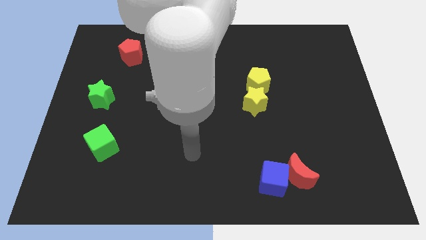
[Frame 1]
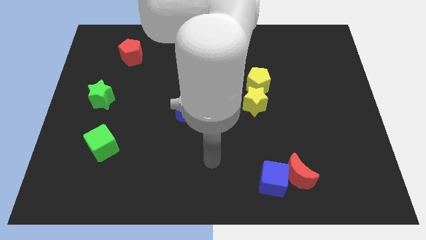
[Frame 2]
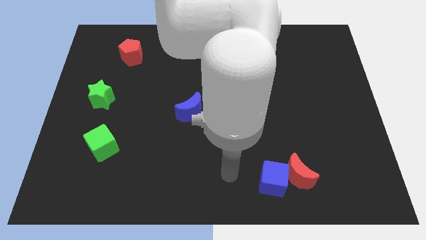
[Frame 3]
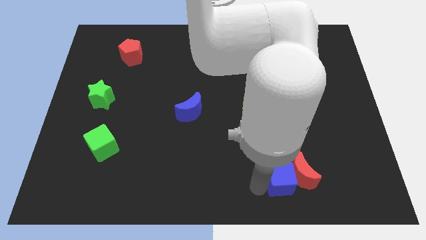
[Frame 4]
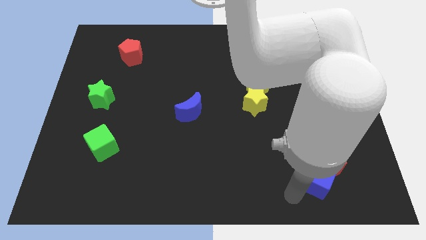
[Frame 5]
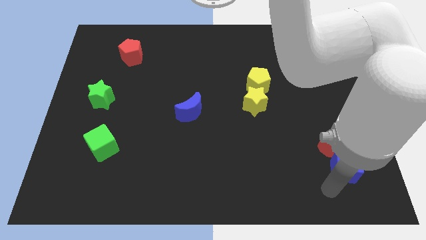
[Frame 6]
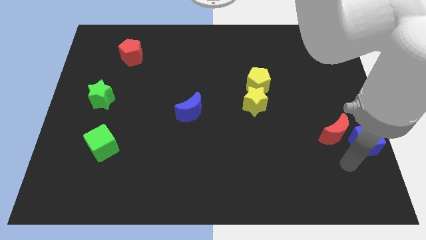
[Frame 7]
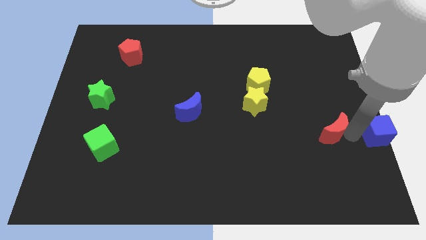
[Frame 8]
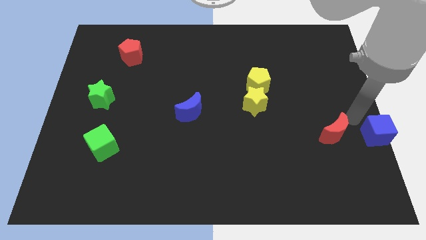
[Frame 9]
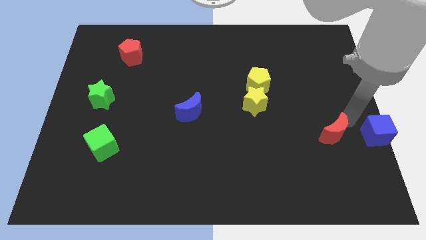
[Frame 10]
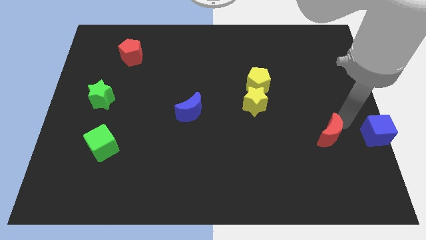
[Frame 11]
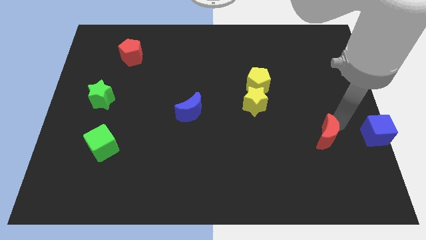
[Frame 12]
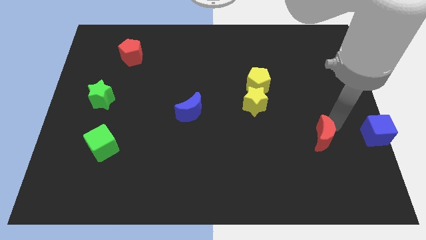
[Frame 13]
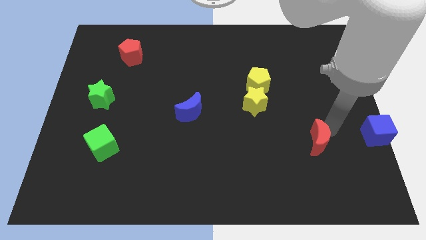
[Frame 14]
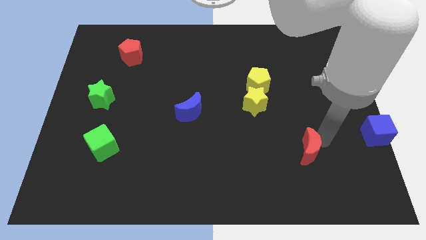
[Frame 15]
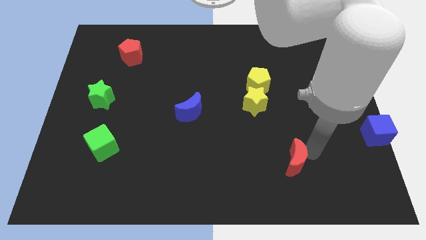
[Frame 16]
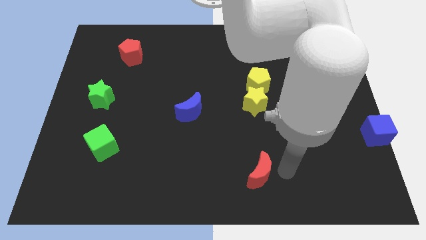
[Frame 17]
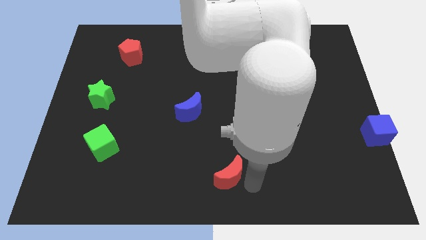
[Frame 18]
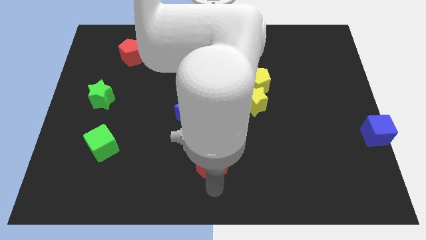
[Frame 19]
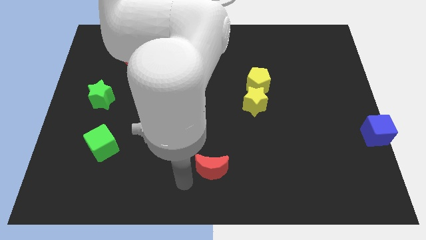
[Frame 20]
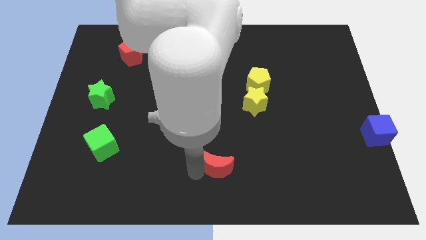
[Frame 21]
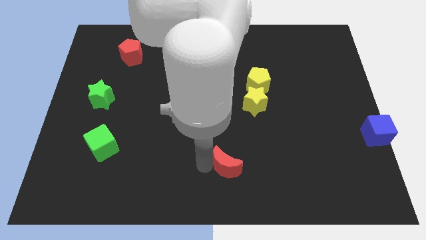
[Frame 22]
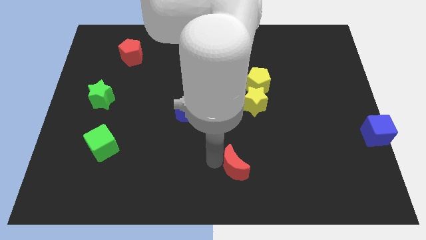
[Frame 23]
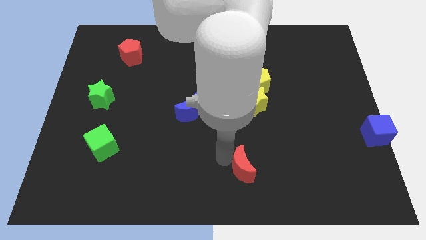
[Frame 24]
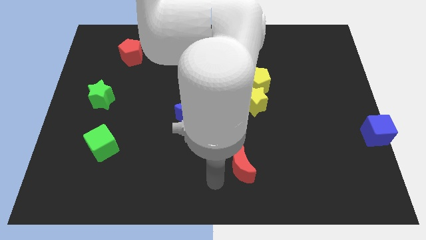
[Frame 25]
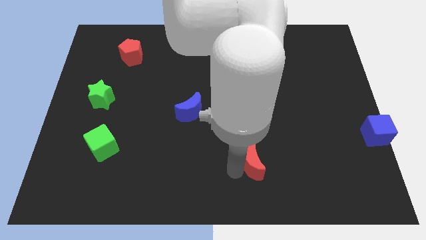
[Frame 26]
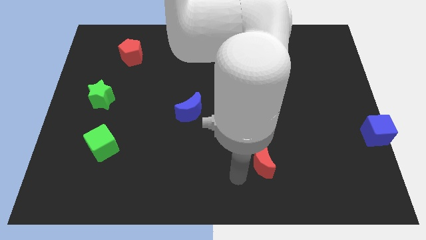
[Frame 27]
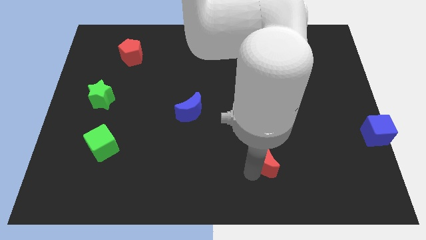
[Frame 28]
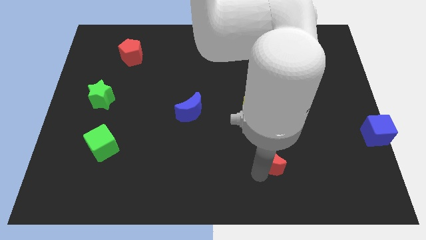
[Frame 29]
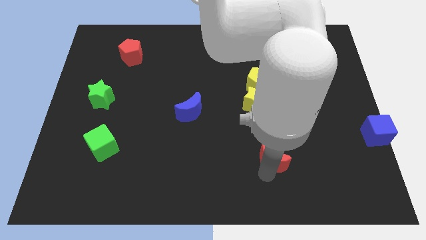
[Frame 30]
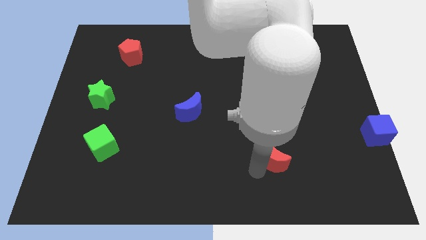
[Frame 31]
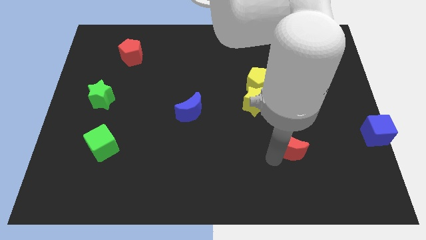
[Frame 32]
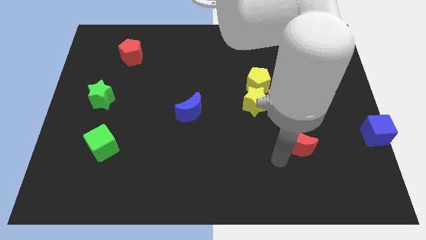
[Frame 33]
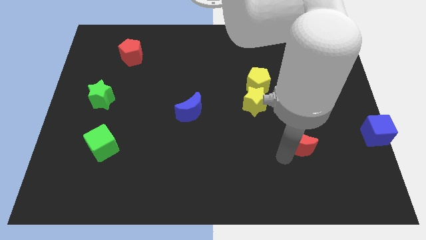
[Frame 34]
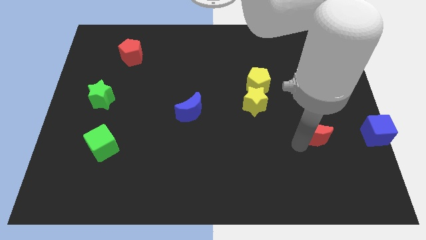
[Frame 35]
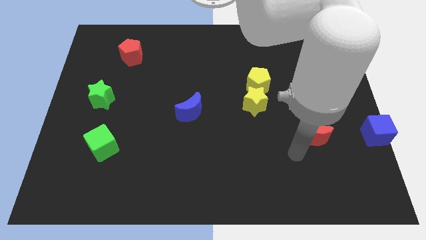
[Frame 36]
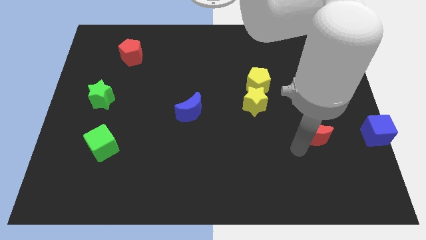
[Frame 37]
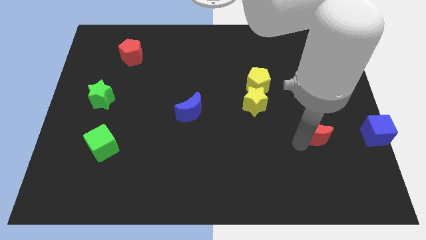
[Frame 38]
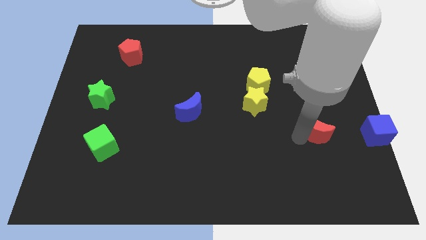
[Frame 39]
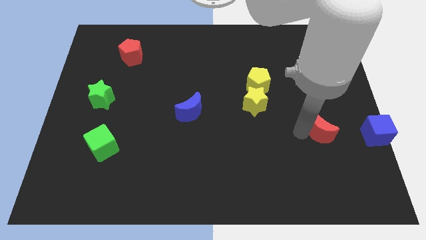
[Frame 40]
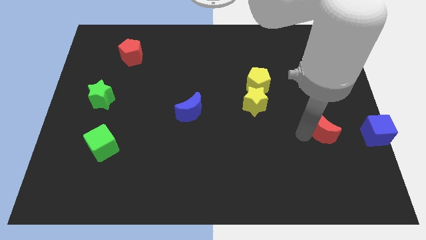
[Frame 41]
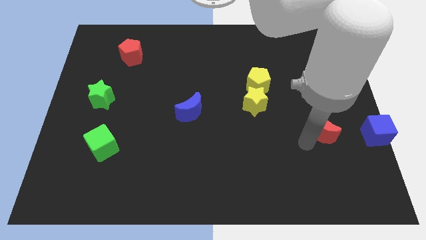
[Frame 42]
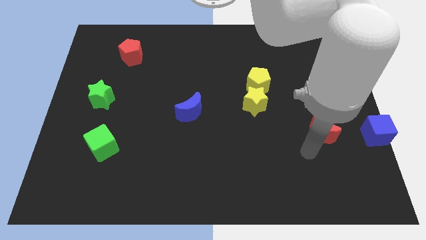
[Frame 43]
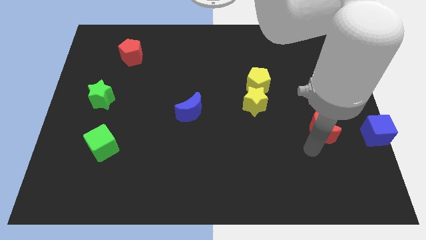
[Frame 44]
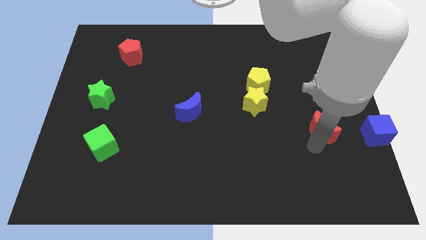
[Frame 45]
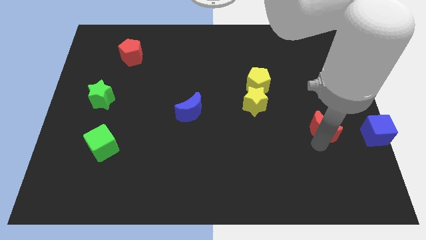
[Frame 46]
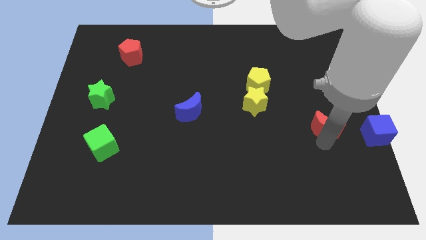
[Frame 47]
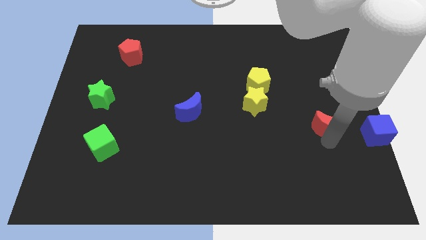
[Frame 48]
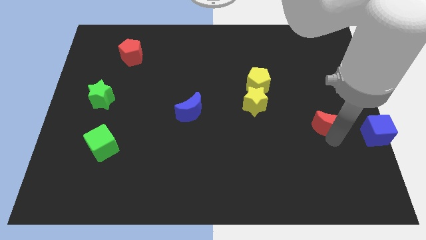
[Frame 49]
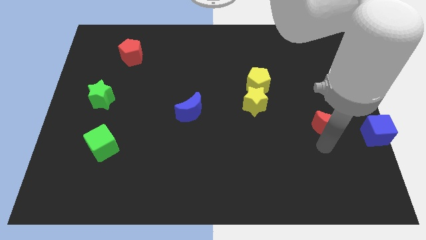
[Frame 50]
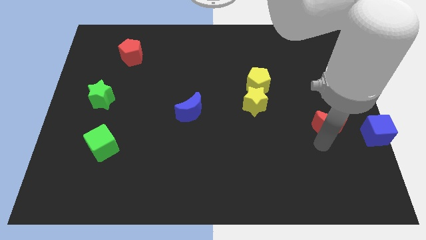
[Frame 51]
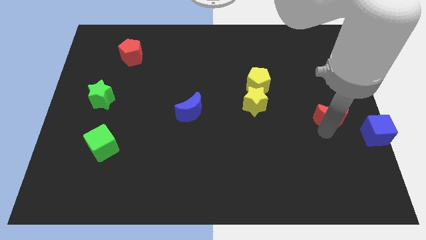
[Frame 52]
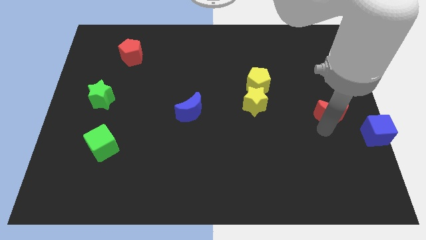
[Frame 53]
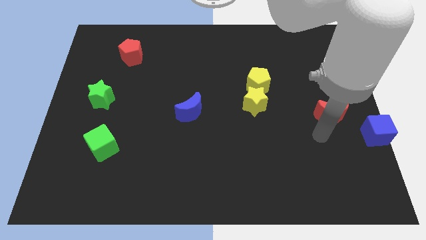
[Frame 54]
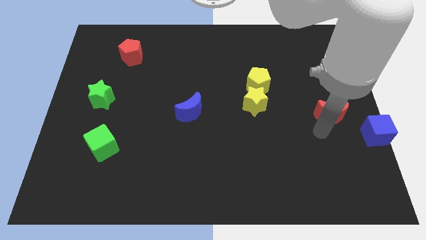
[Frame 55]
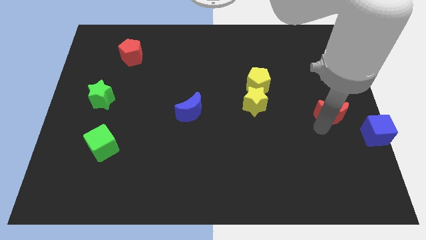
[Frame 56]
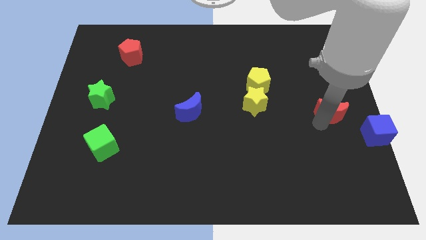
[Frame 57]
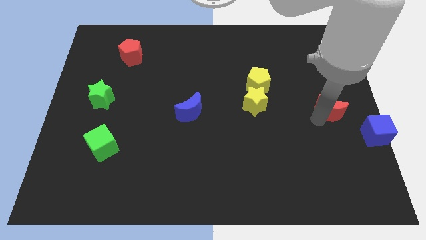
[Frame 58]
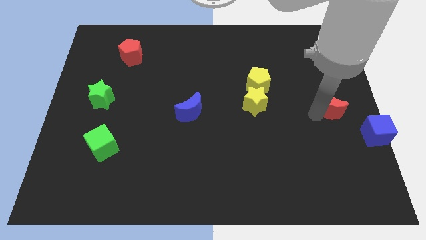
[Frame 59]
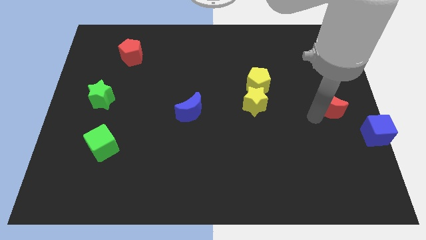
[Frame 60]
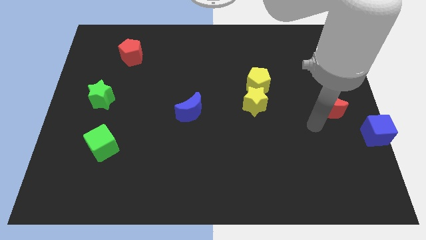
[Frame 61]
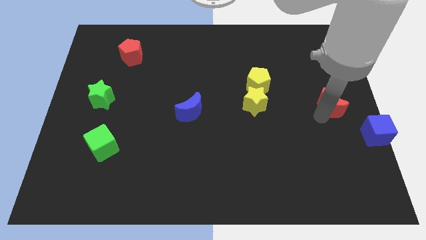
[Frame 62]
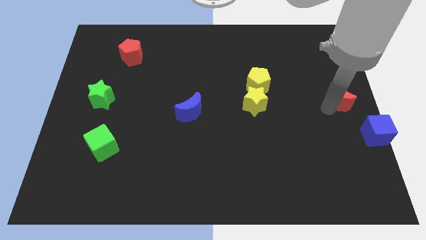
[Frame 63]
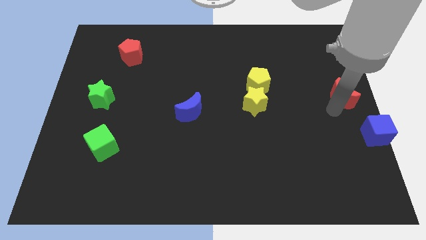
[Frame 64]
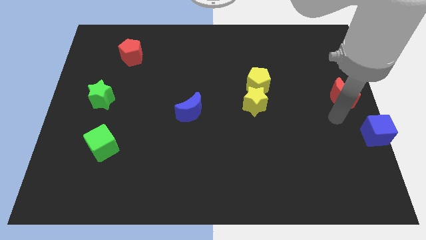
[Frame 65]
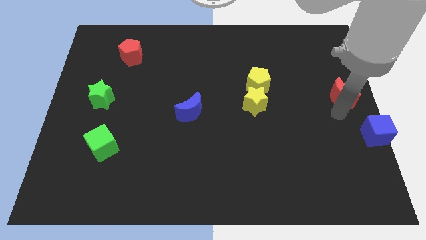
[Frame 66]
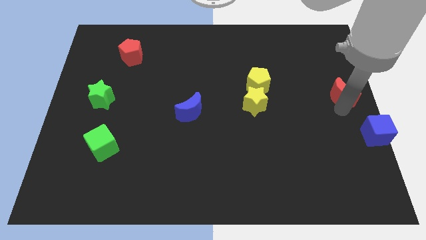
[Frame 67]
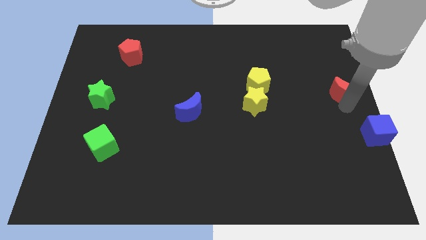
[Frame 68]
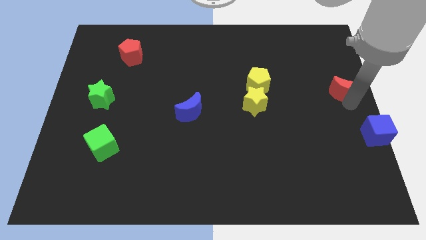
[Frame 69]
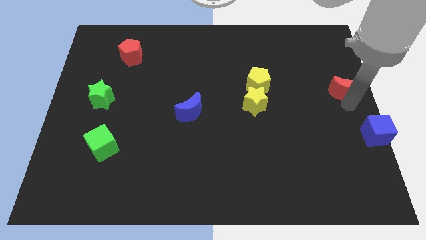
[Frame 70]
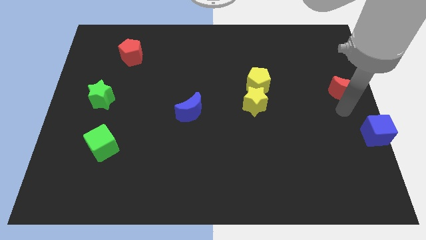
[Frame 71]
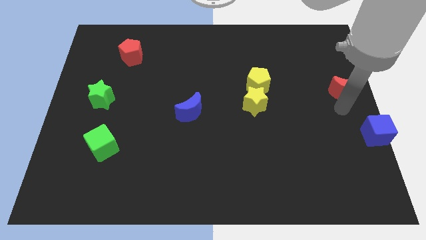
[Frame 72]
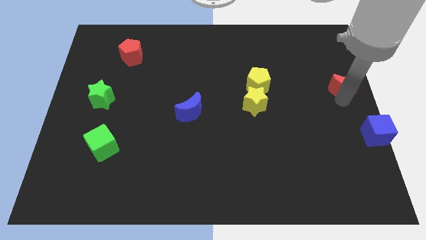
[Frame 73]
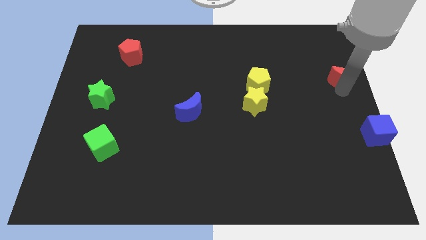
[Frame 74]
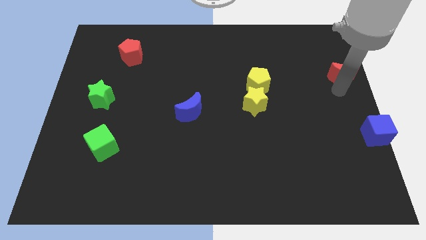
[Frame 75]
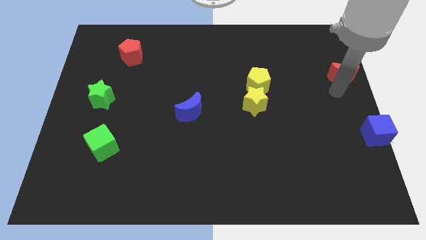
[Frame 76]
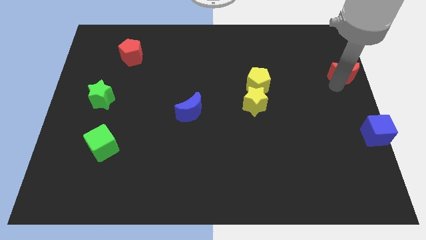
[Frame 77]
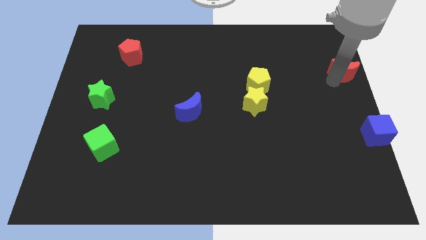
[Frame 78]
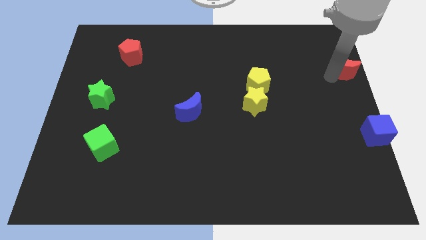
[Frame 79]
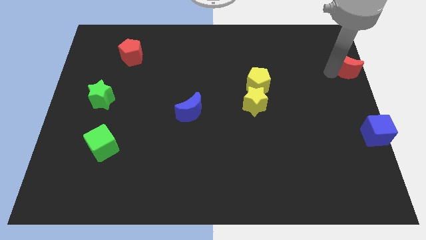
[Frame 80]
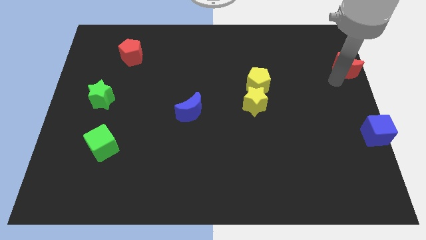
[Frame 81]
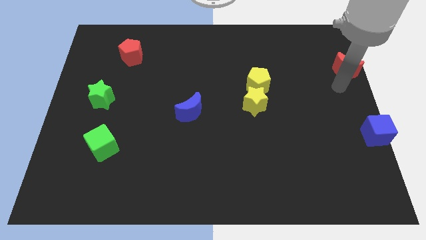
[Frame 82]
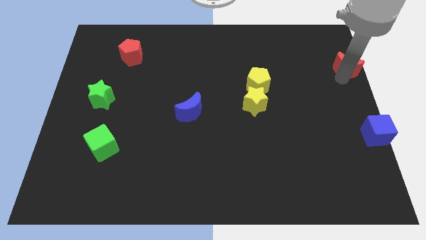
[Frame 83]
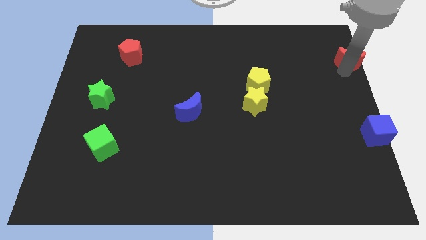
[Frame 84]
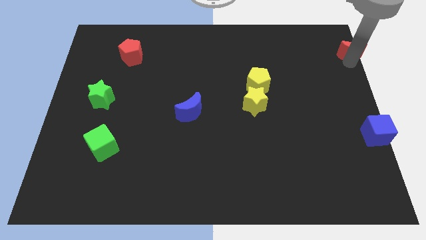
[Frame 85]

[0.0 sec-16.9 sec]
slide the red moon to the top right of the board
